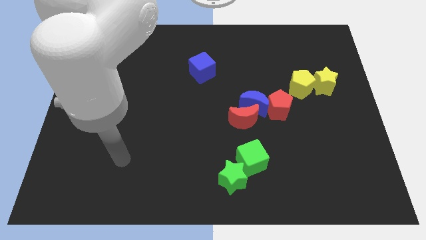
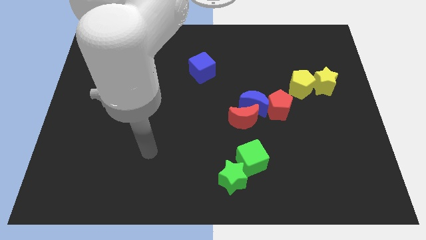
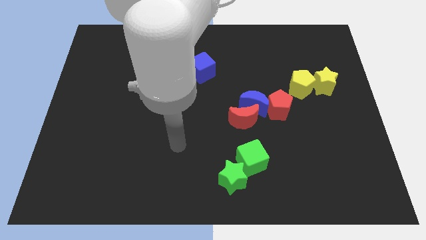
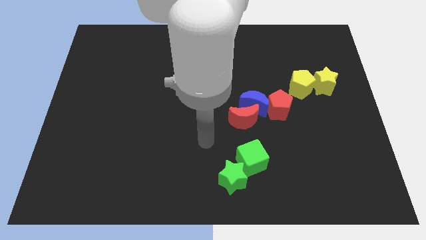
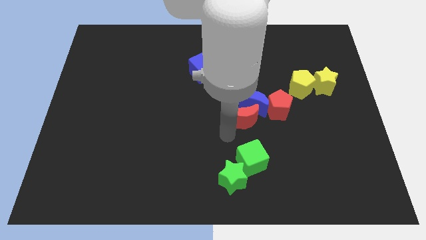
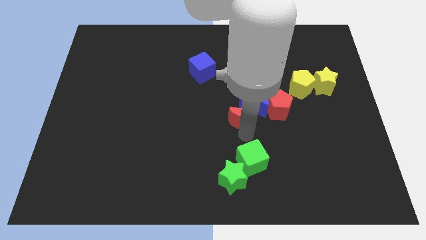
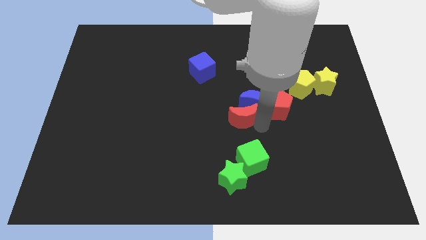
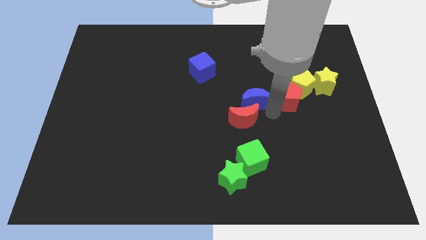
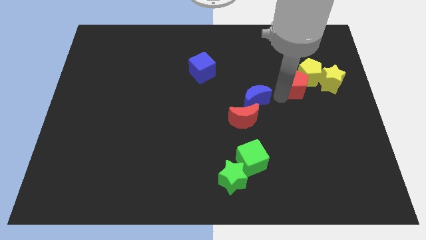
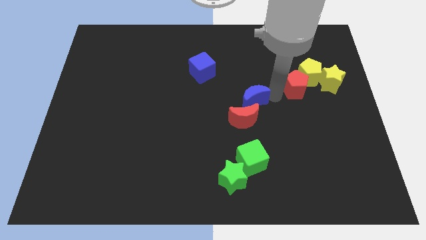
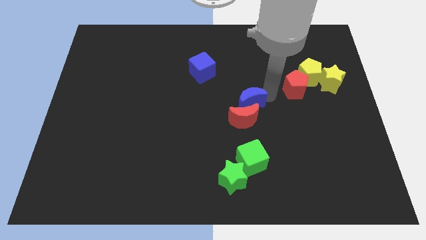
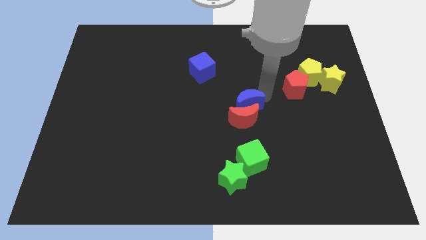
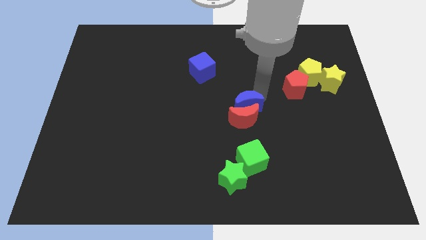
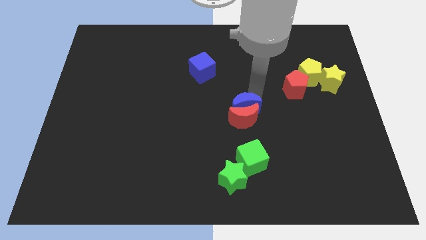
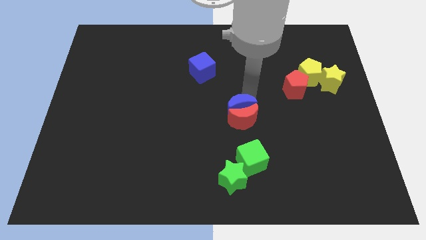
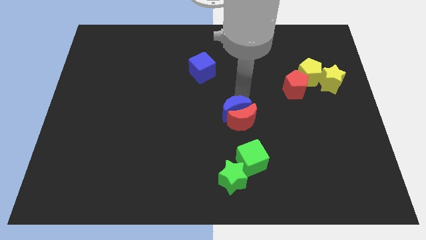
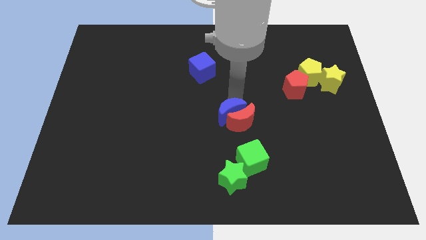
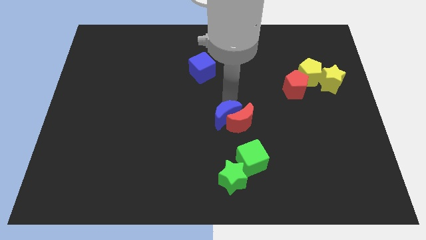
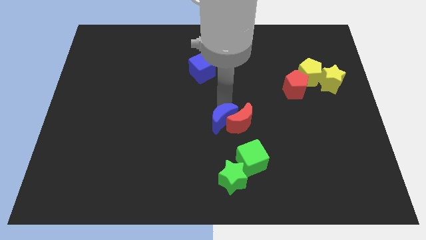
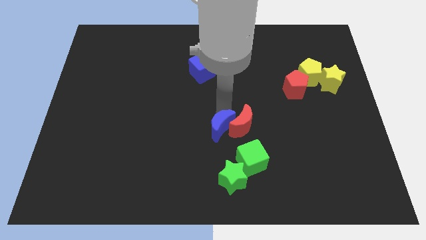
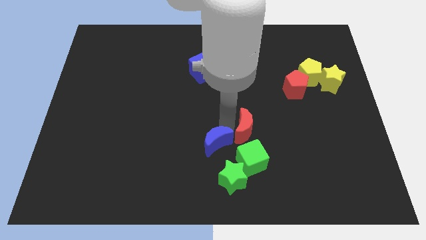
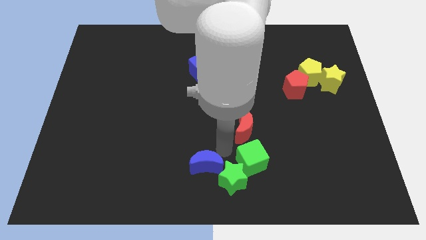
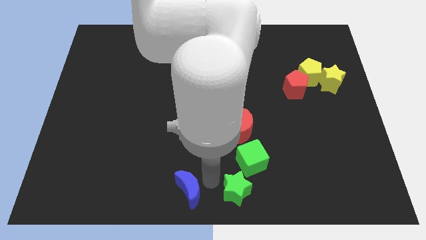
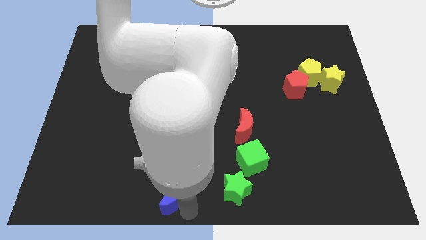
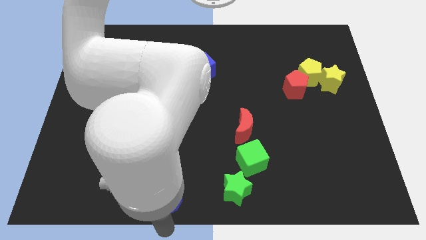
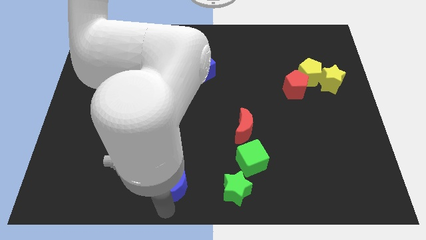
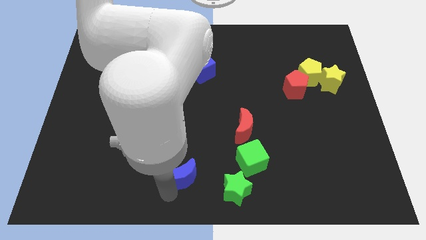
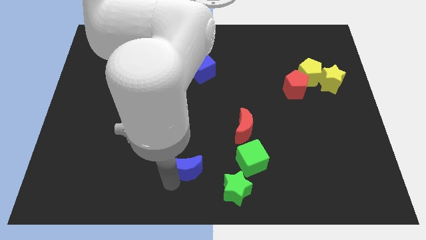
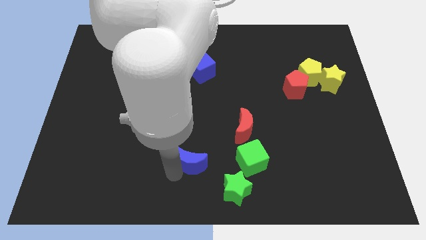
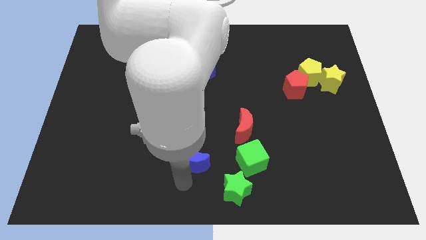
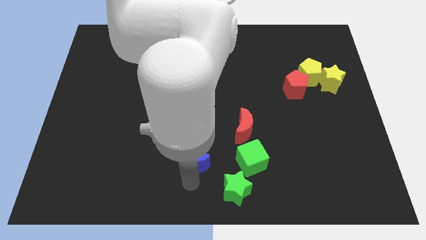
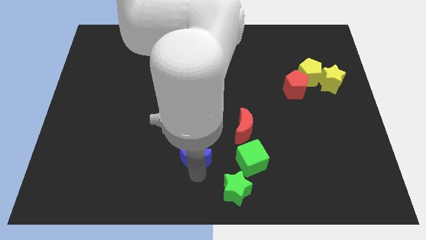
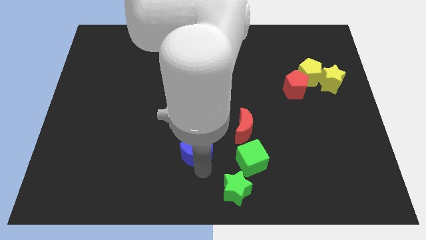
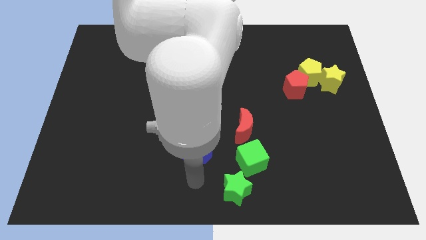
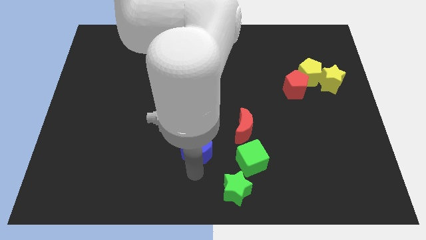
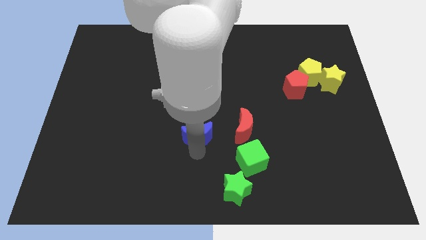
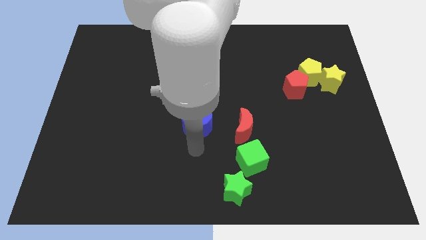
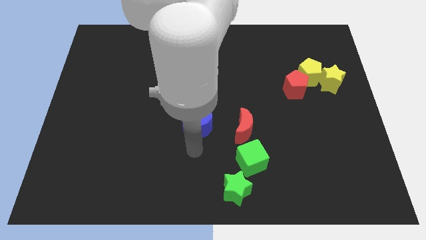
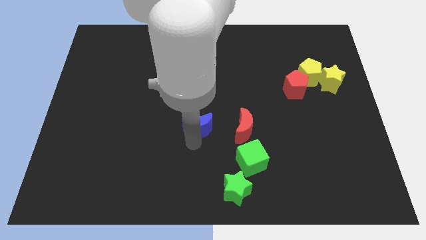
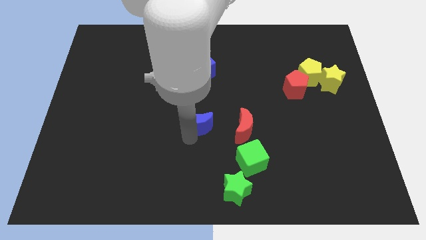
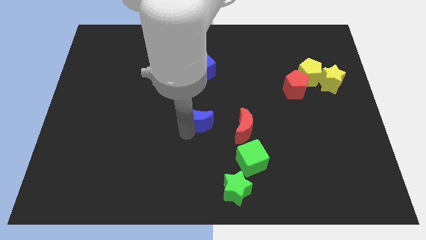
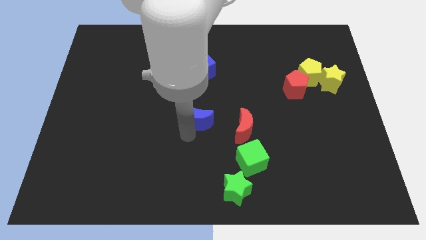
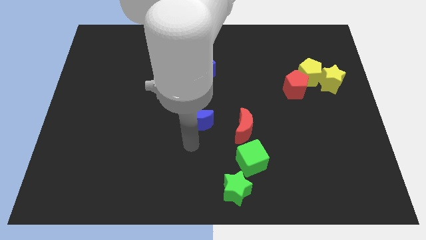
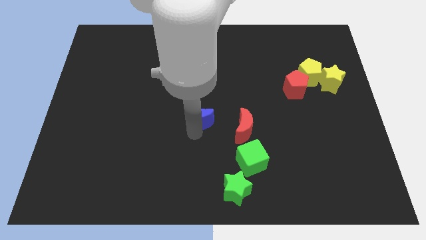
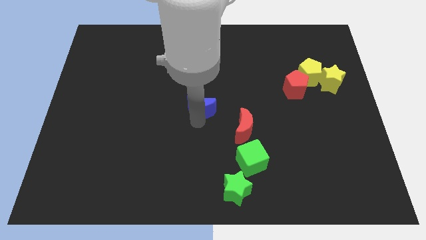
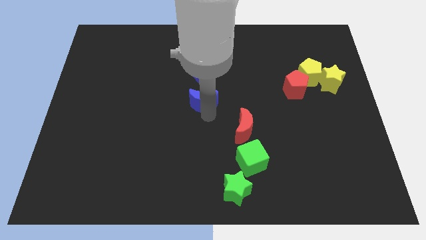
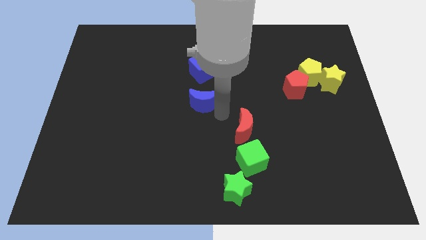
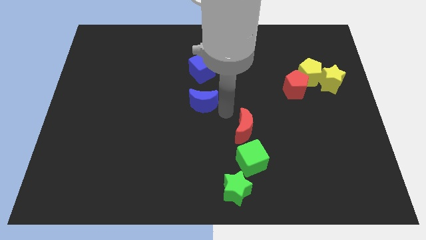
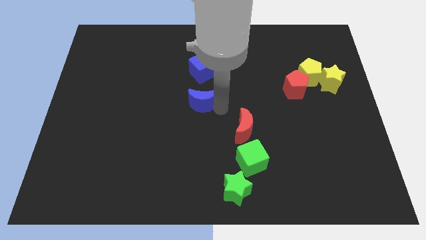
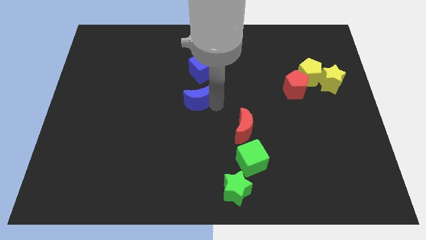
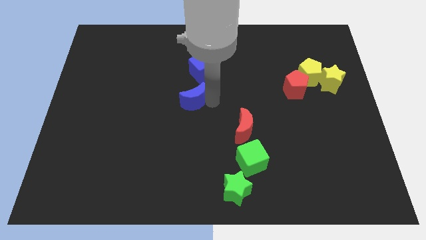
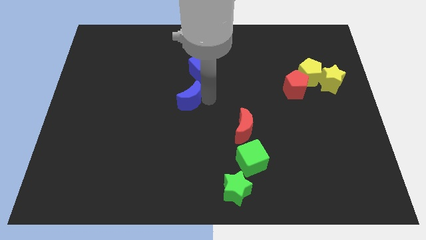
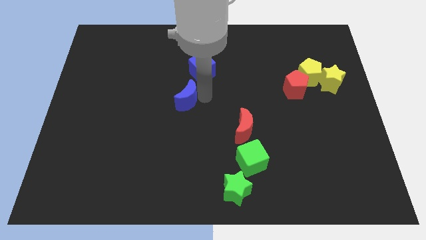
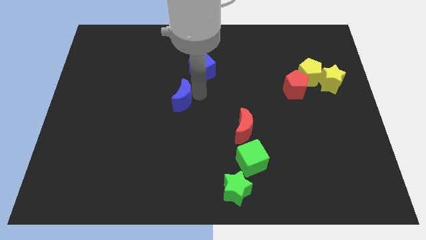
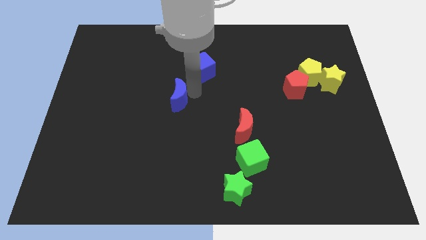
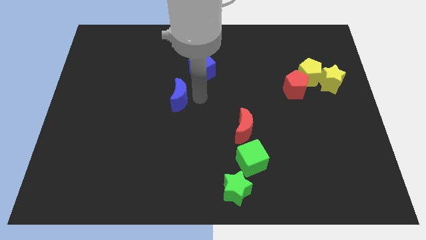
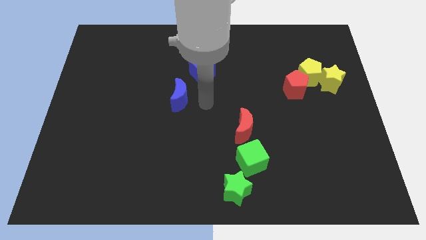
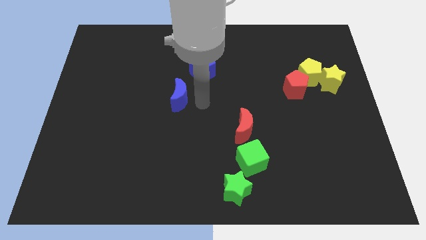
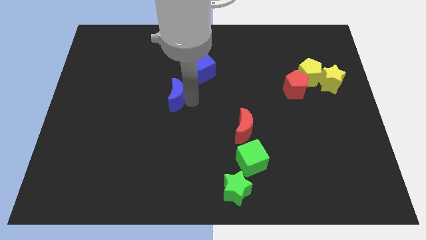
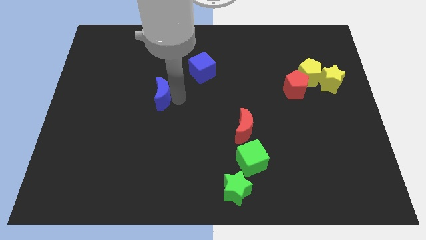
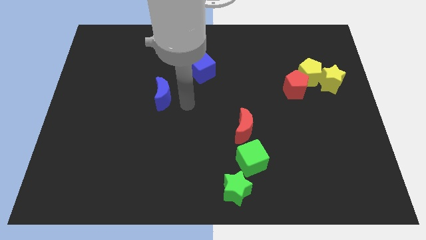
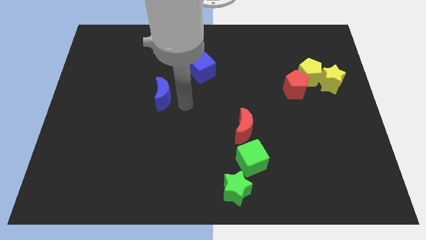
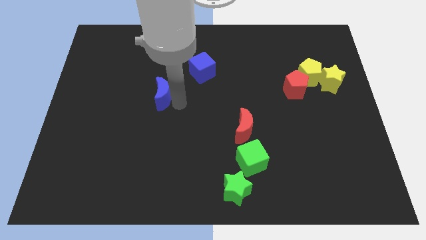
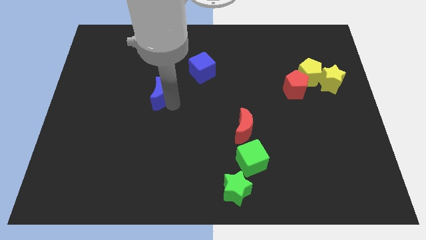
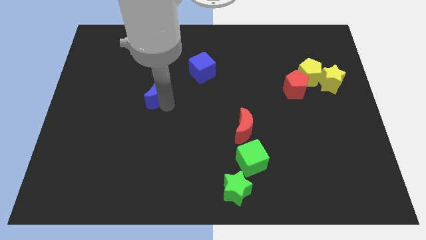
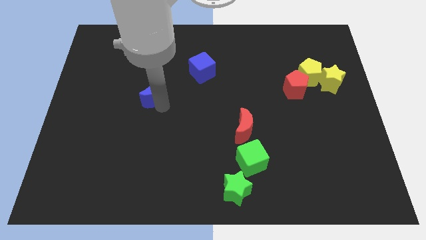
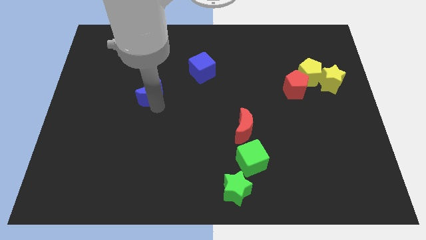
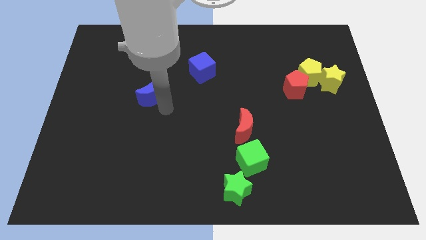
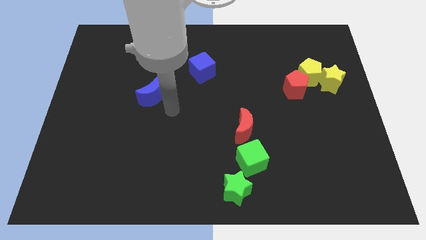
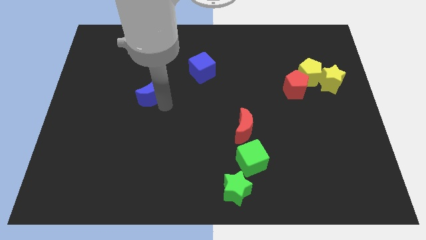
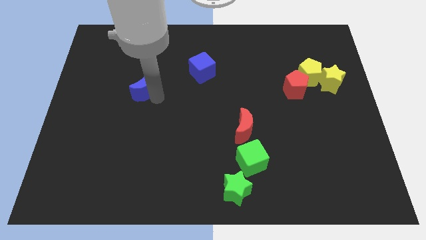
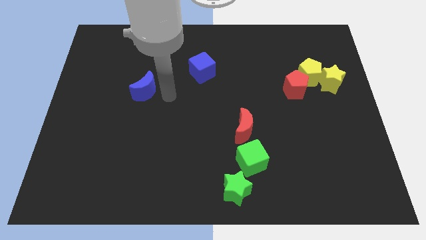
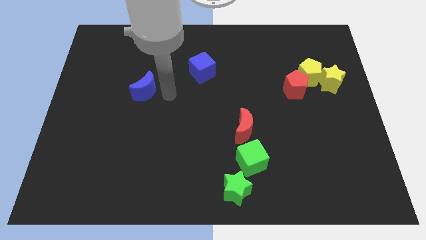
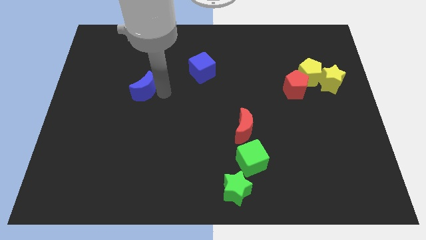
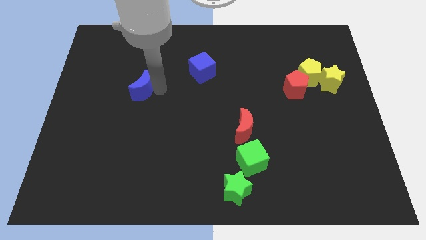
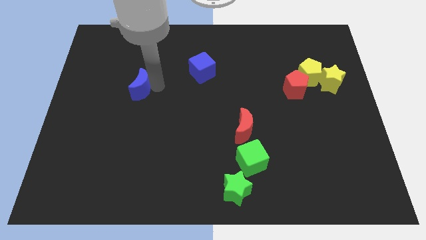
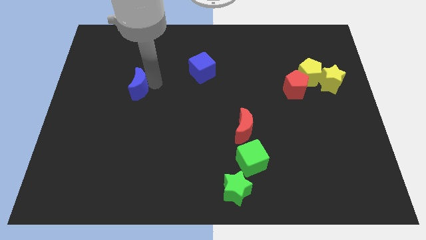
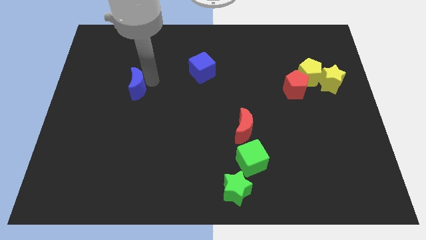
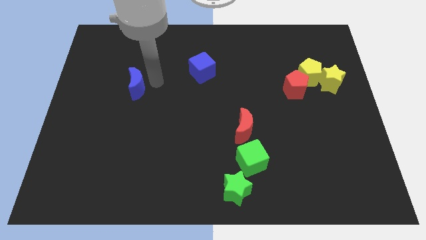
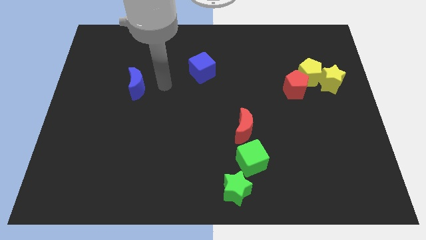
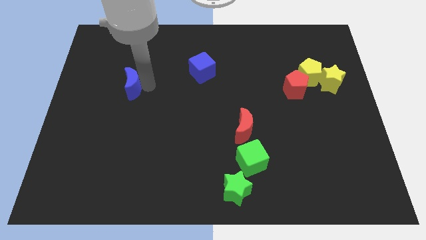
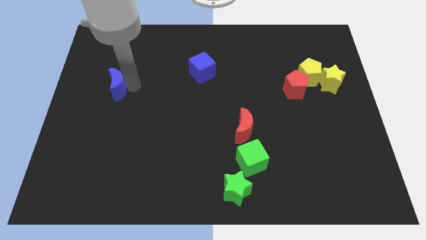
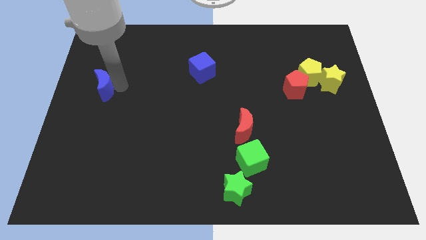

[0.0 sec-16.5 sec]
move the blue moon to the left side
